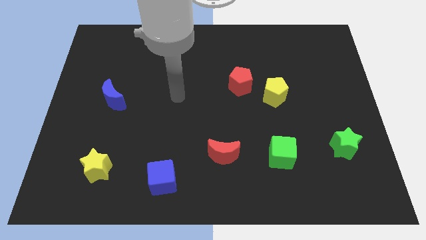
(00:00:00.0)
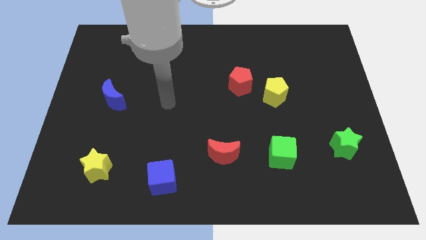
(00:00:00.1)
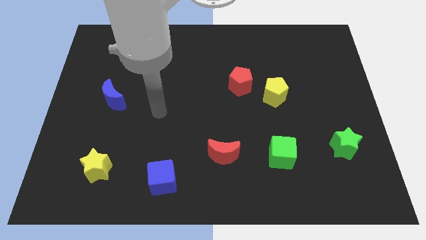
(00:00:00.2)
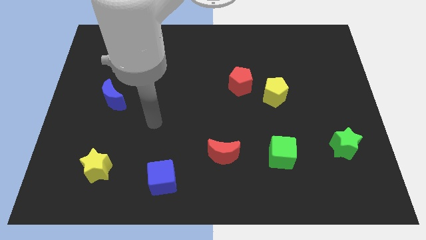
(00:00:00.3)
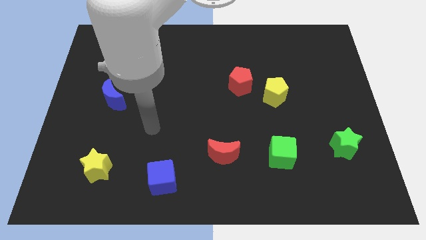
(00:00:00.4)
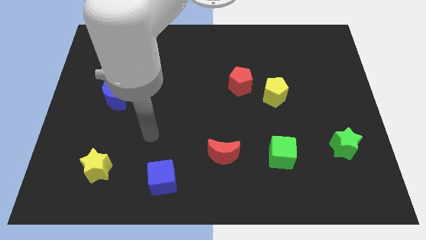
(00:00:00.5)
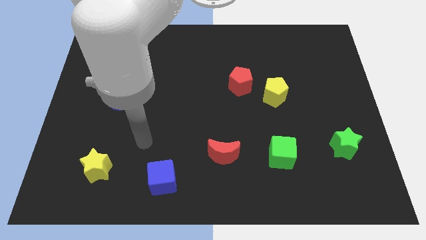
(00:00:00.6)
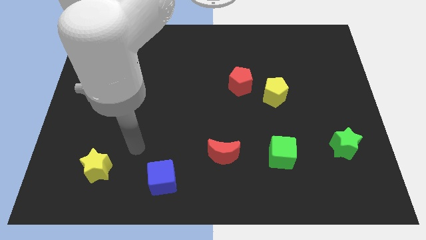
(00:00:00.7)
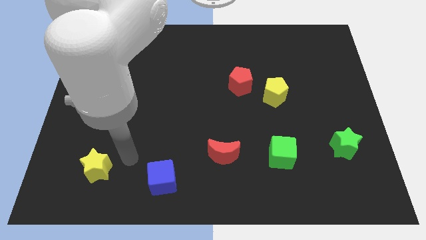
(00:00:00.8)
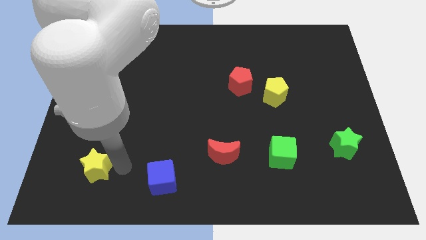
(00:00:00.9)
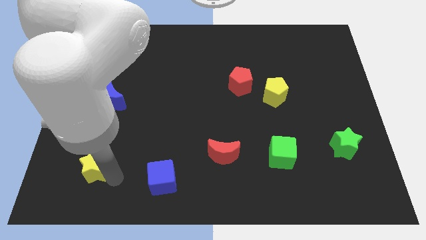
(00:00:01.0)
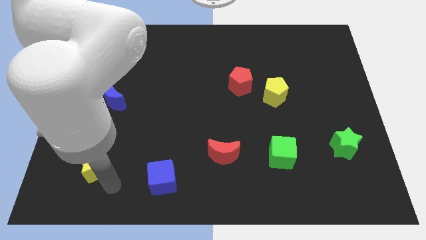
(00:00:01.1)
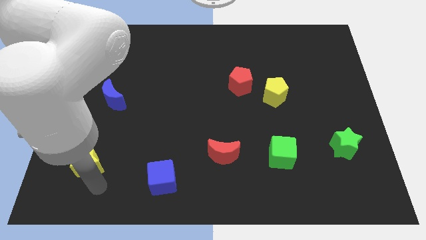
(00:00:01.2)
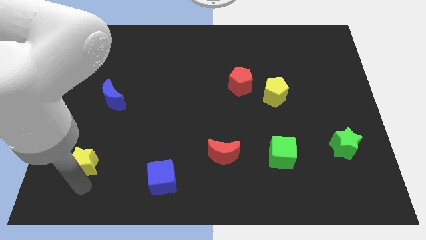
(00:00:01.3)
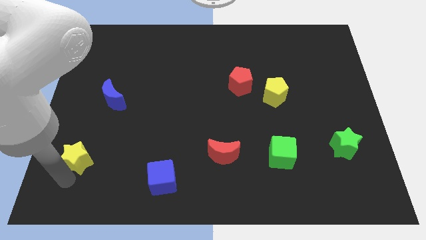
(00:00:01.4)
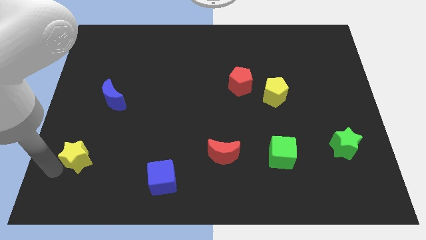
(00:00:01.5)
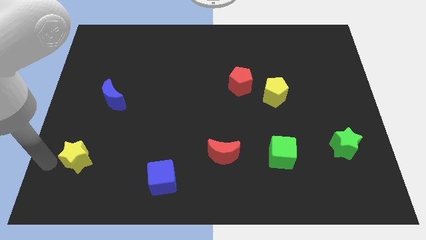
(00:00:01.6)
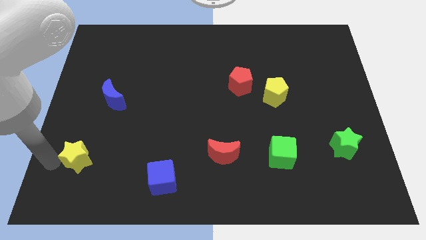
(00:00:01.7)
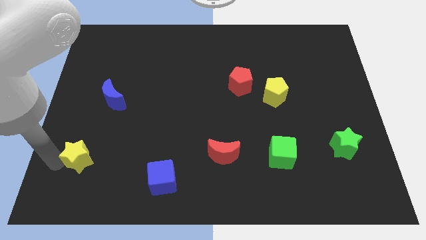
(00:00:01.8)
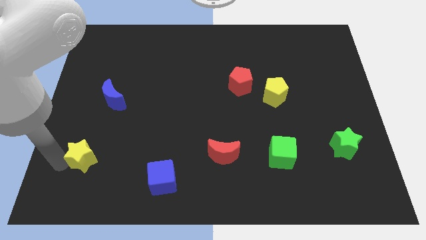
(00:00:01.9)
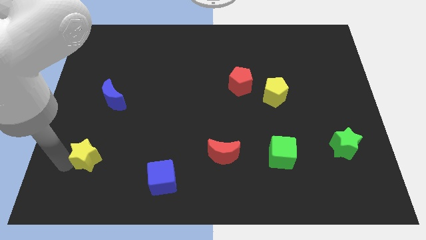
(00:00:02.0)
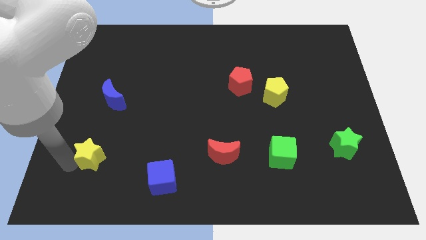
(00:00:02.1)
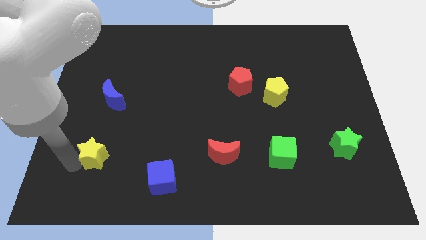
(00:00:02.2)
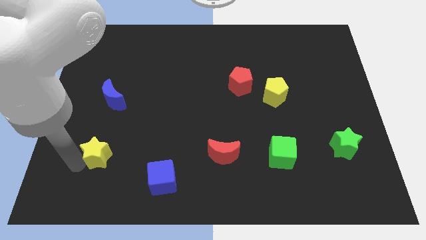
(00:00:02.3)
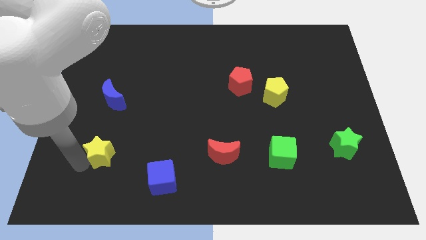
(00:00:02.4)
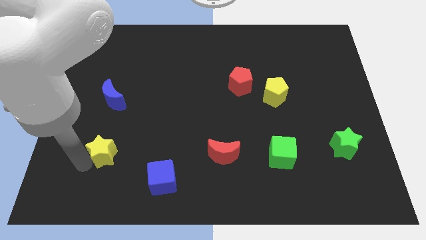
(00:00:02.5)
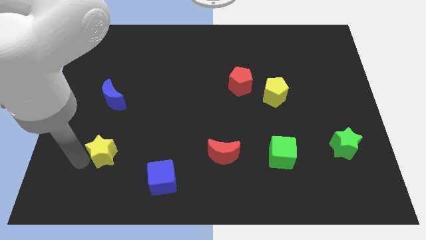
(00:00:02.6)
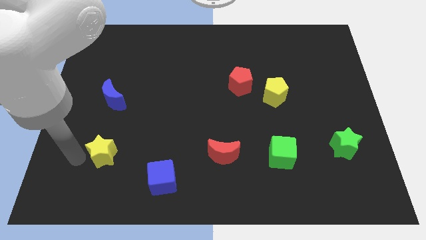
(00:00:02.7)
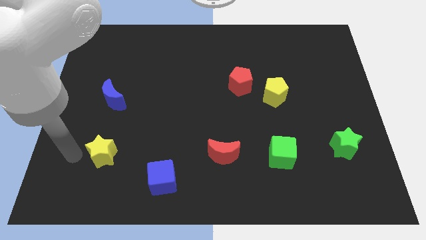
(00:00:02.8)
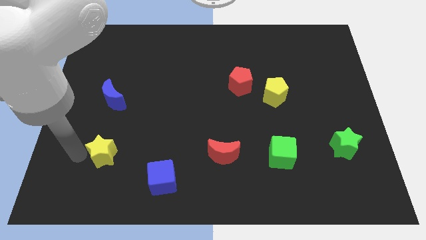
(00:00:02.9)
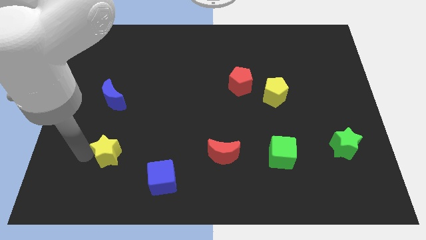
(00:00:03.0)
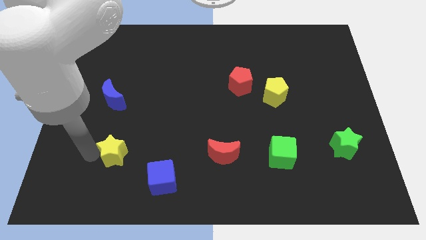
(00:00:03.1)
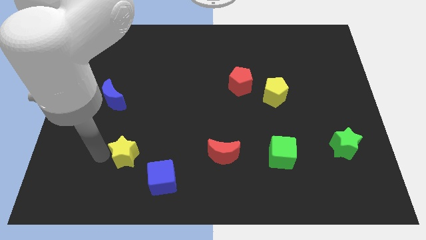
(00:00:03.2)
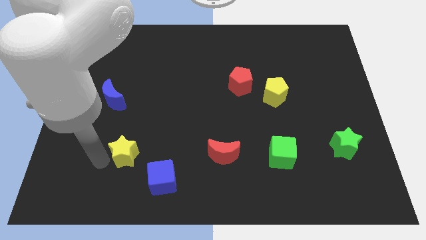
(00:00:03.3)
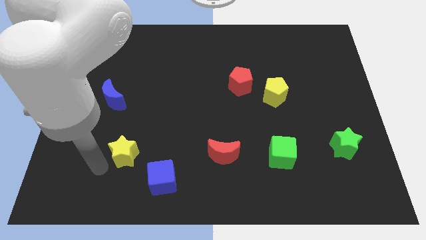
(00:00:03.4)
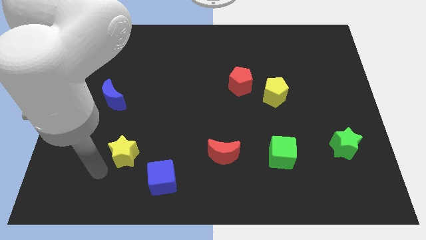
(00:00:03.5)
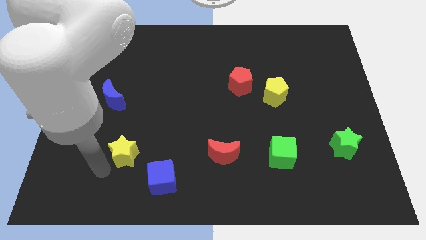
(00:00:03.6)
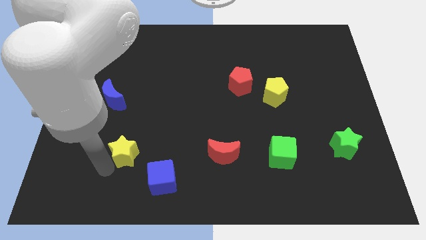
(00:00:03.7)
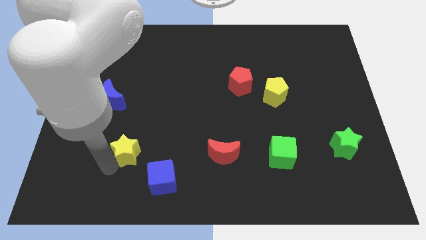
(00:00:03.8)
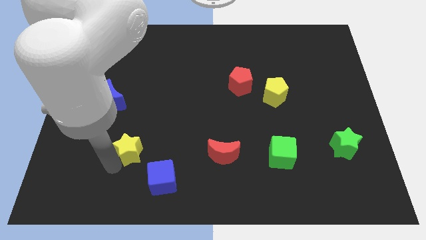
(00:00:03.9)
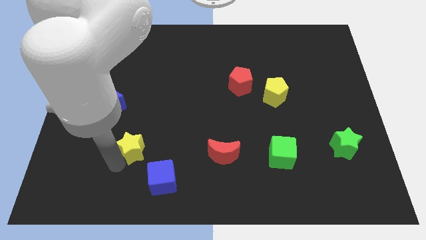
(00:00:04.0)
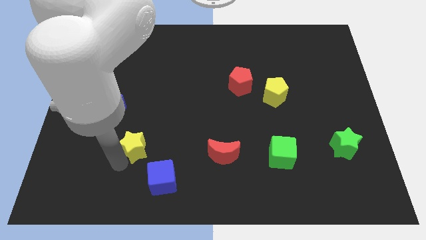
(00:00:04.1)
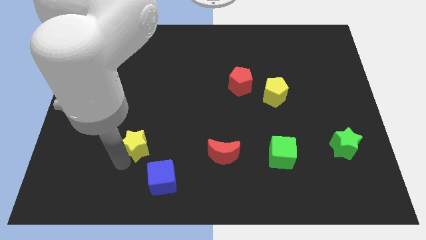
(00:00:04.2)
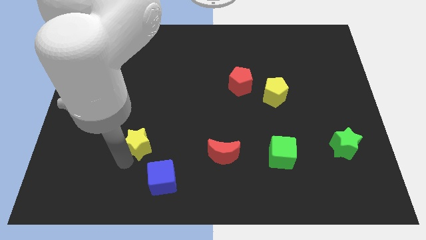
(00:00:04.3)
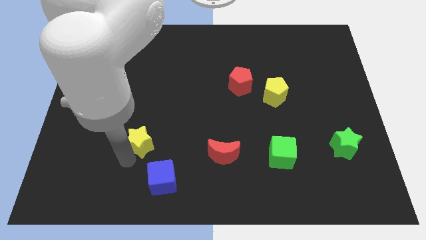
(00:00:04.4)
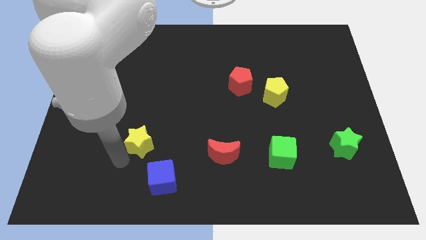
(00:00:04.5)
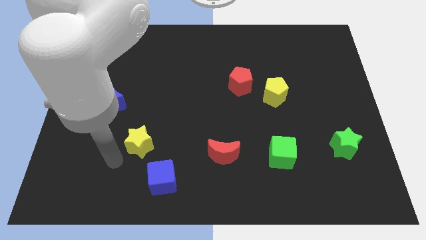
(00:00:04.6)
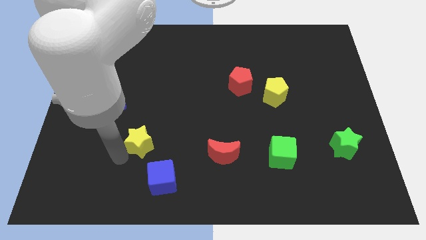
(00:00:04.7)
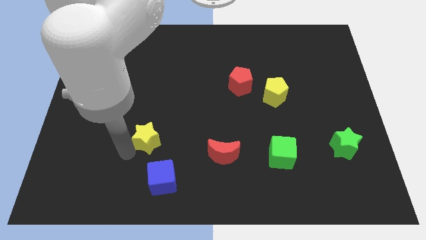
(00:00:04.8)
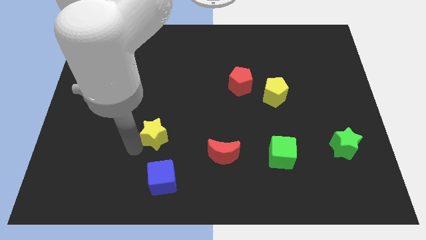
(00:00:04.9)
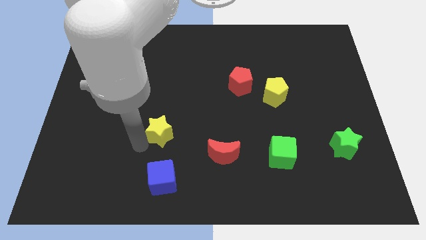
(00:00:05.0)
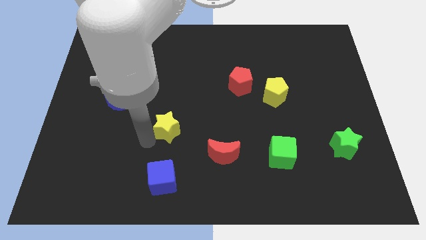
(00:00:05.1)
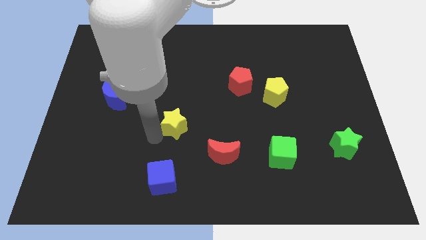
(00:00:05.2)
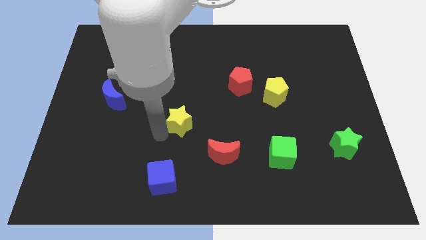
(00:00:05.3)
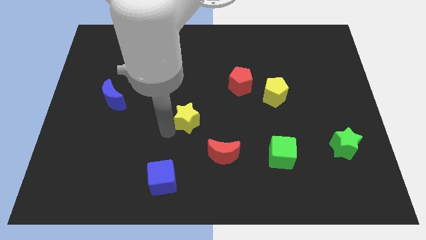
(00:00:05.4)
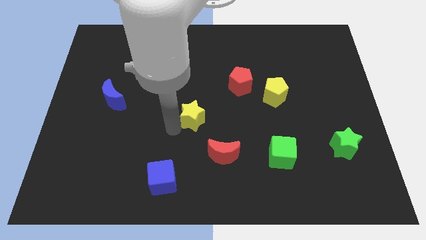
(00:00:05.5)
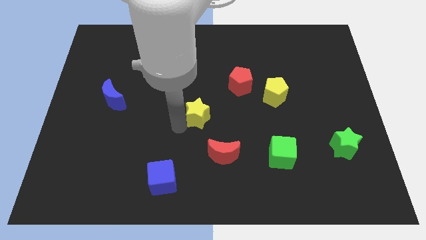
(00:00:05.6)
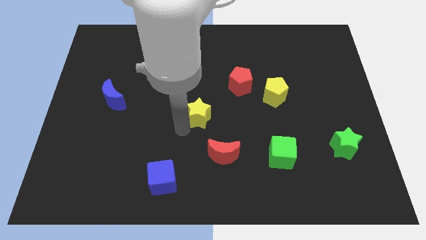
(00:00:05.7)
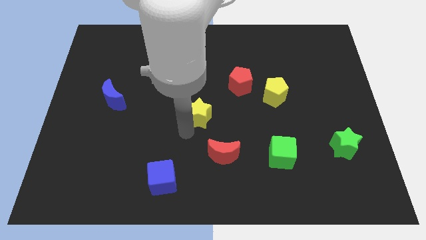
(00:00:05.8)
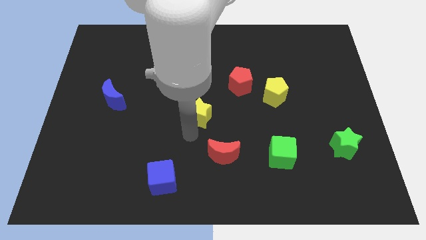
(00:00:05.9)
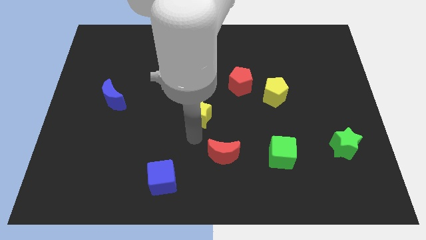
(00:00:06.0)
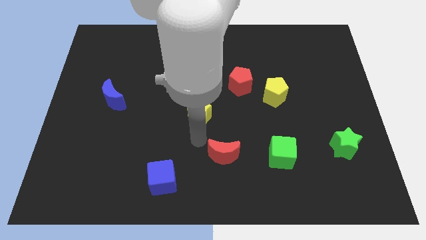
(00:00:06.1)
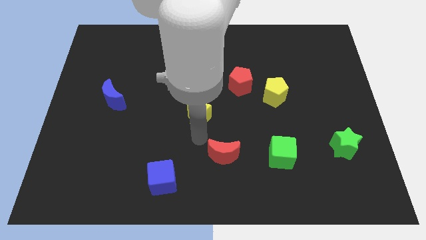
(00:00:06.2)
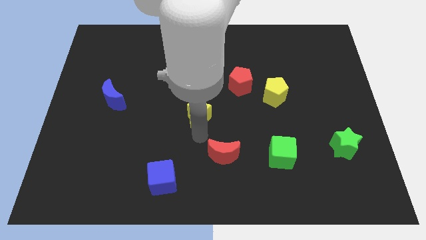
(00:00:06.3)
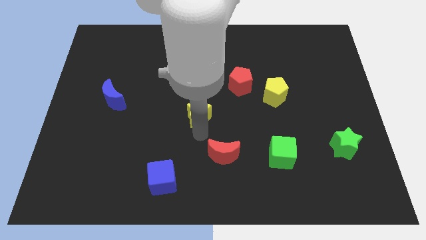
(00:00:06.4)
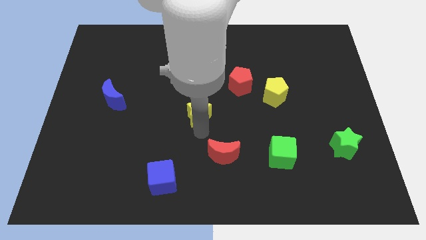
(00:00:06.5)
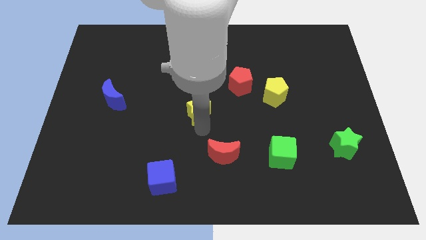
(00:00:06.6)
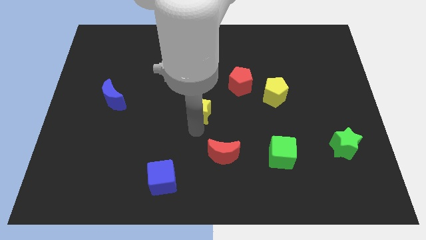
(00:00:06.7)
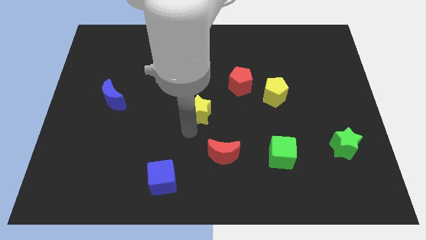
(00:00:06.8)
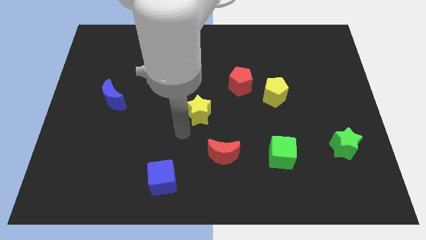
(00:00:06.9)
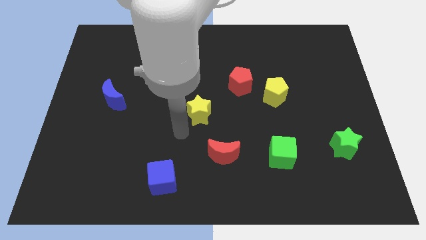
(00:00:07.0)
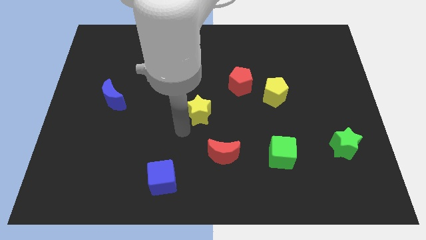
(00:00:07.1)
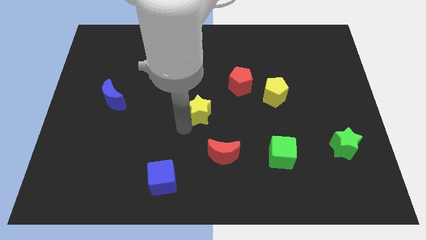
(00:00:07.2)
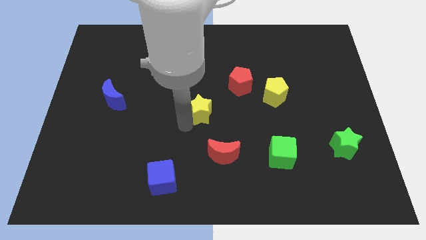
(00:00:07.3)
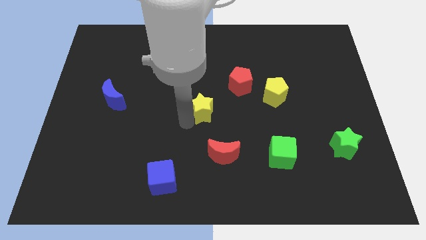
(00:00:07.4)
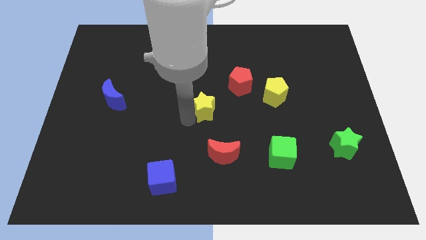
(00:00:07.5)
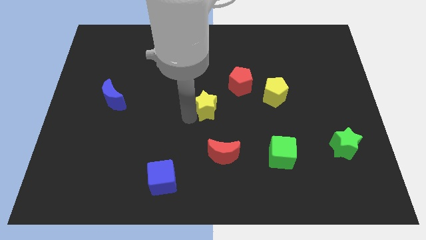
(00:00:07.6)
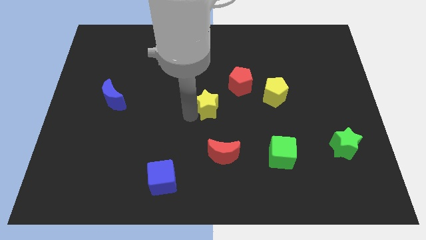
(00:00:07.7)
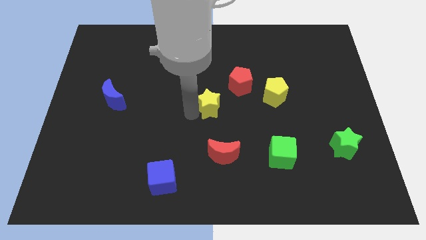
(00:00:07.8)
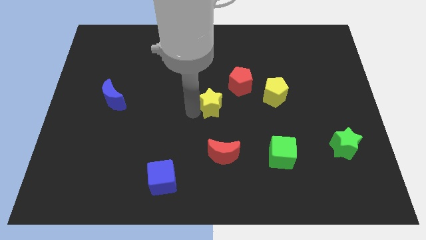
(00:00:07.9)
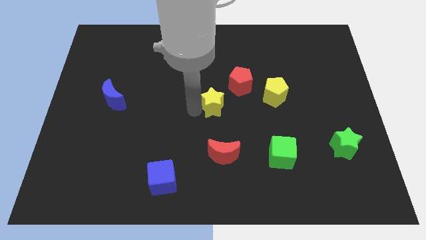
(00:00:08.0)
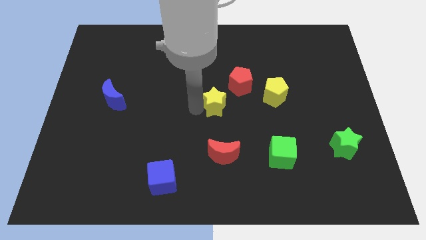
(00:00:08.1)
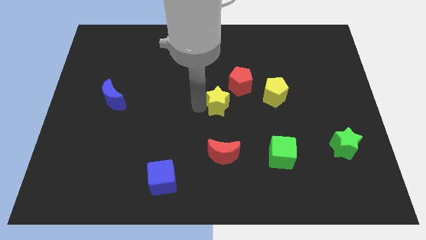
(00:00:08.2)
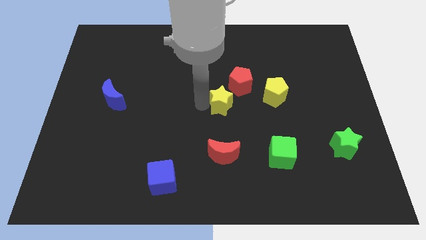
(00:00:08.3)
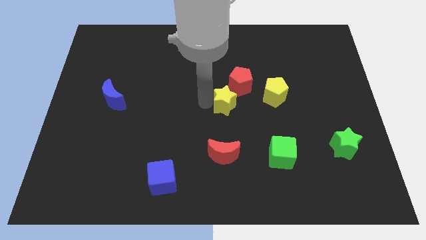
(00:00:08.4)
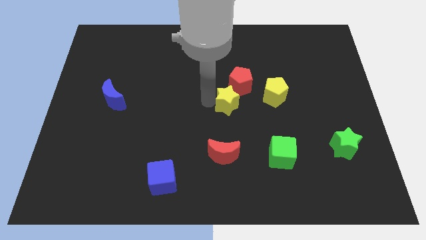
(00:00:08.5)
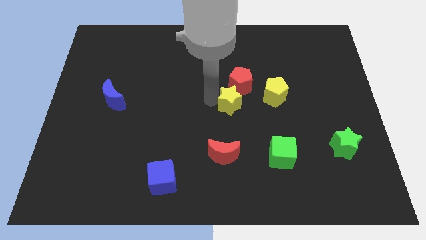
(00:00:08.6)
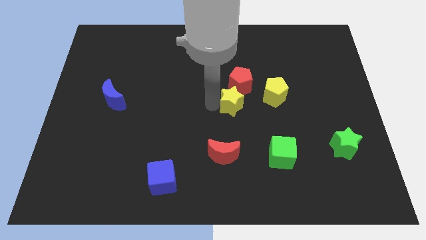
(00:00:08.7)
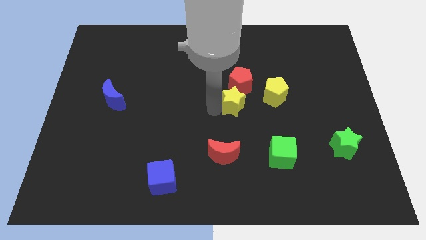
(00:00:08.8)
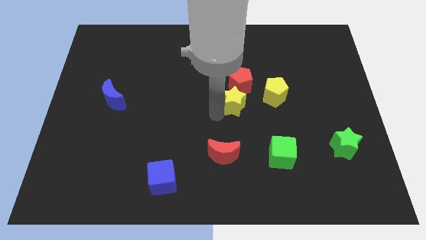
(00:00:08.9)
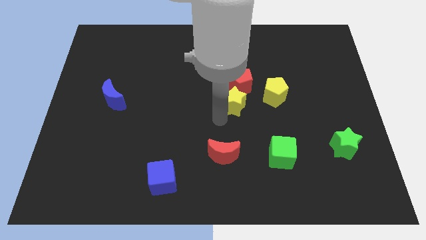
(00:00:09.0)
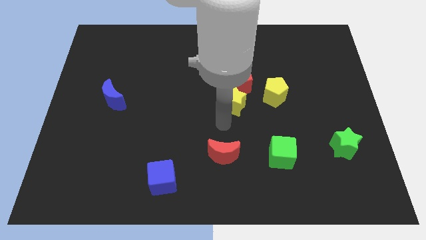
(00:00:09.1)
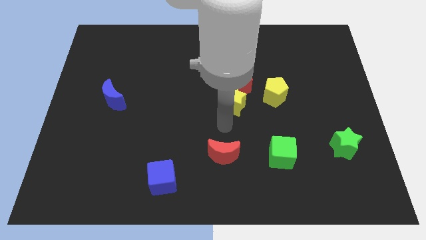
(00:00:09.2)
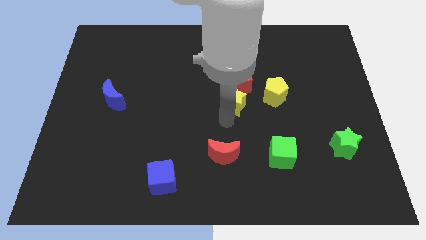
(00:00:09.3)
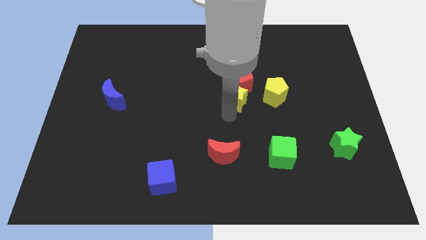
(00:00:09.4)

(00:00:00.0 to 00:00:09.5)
push the yellow star close to the red pentagon
